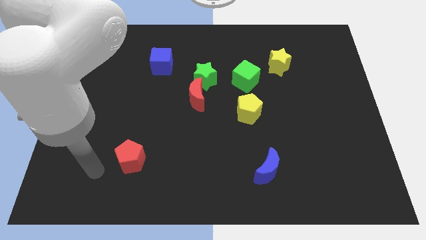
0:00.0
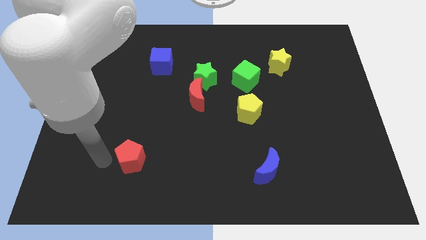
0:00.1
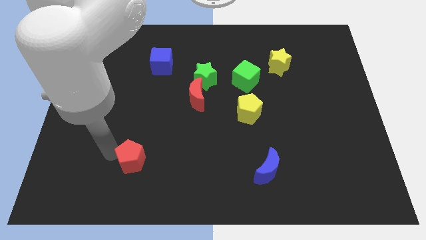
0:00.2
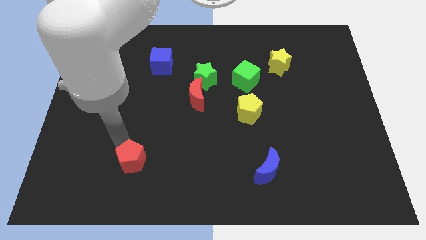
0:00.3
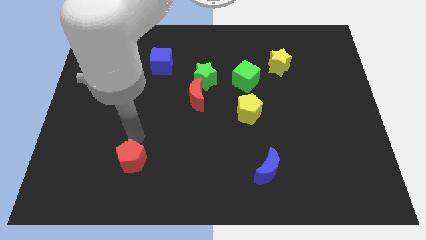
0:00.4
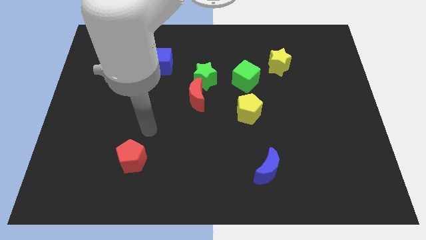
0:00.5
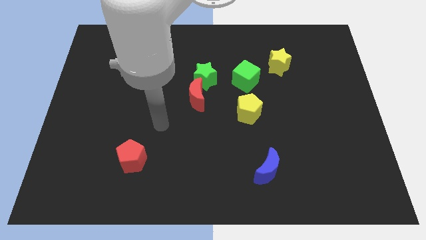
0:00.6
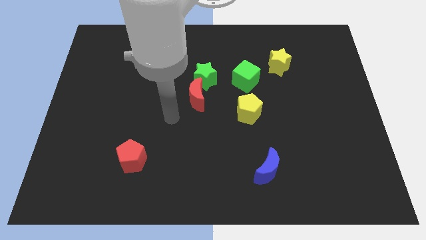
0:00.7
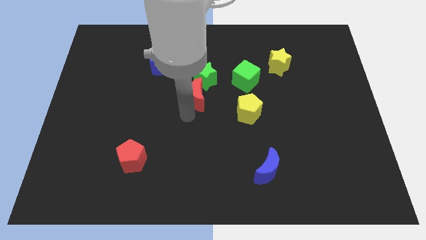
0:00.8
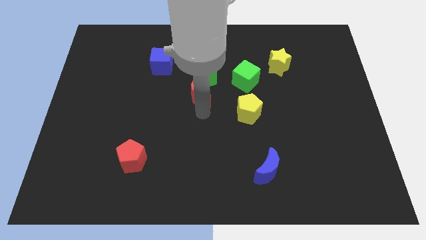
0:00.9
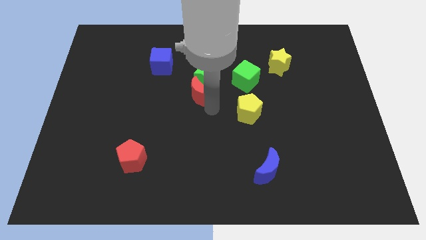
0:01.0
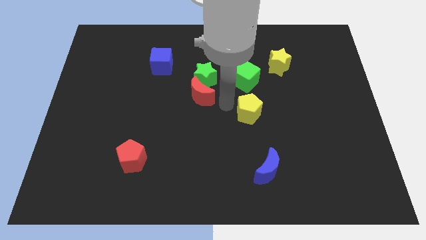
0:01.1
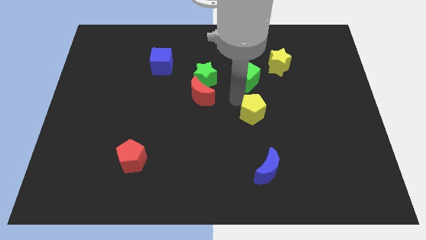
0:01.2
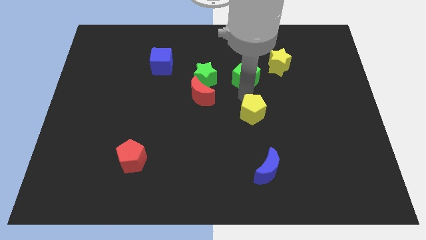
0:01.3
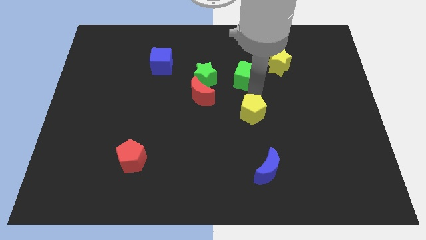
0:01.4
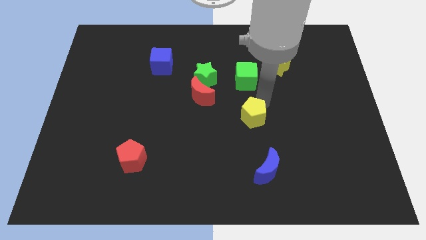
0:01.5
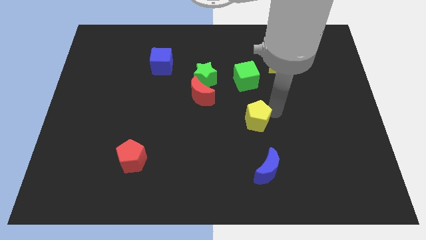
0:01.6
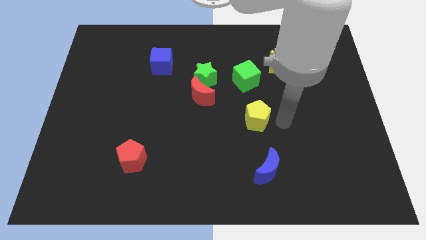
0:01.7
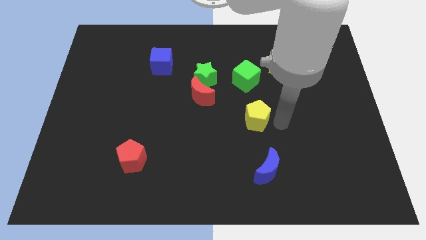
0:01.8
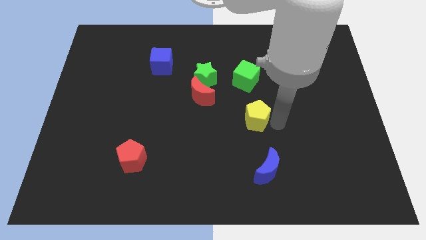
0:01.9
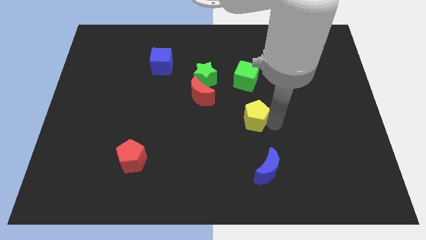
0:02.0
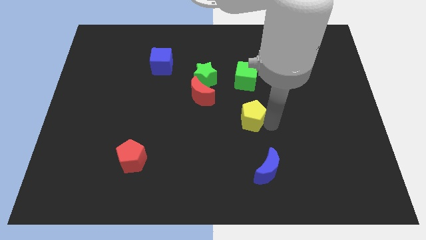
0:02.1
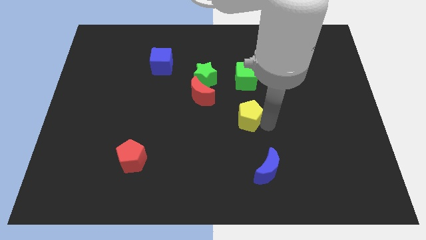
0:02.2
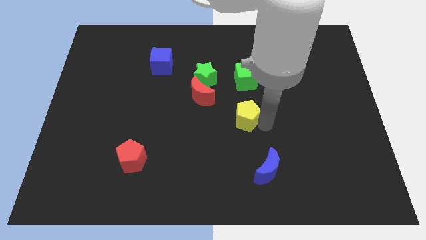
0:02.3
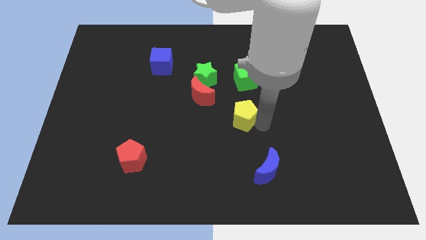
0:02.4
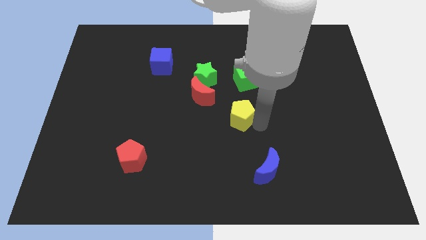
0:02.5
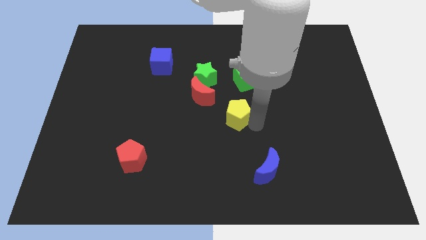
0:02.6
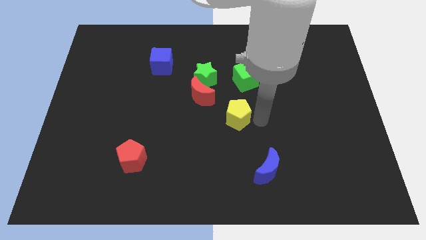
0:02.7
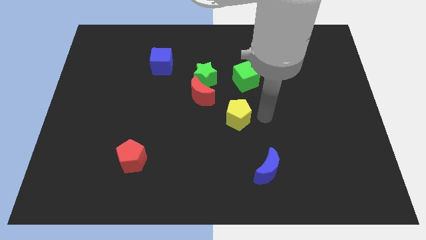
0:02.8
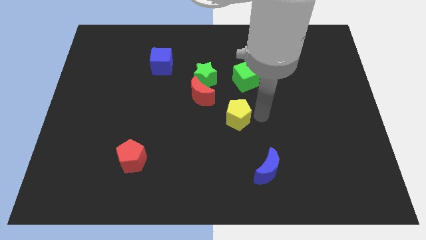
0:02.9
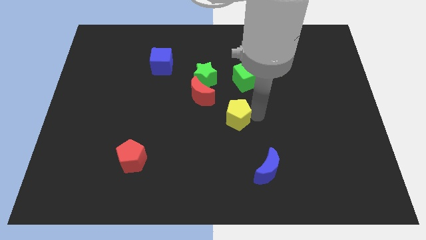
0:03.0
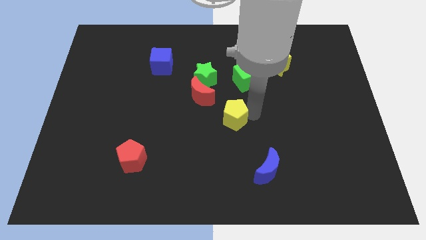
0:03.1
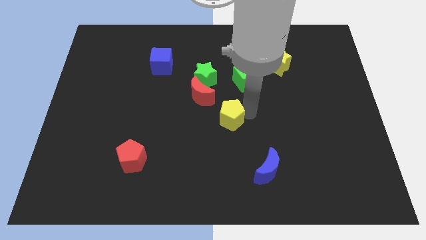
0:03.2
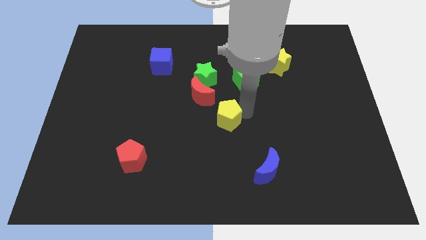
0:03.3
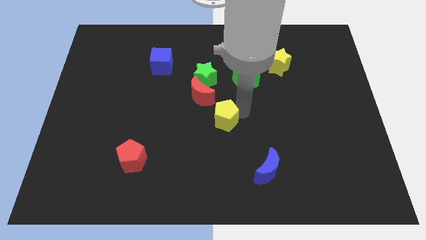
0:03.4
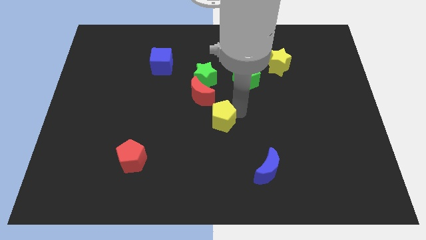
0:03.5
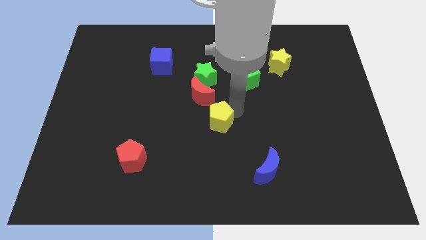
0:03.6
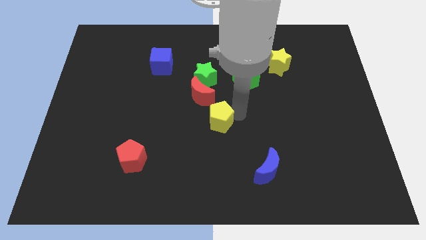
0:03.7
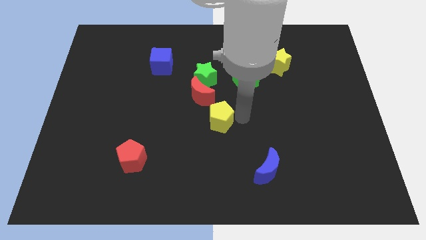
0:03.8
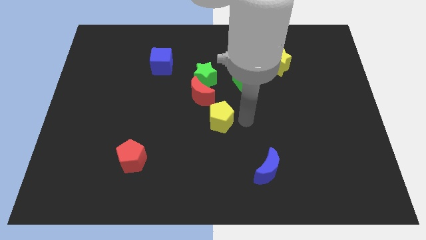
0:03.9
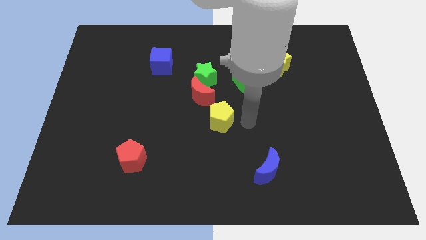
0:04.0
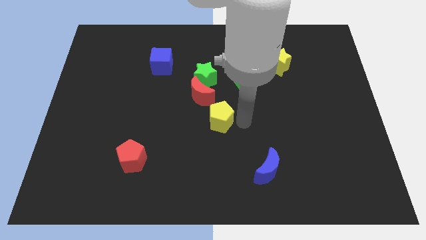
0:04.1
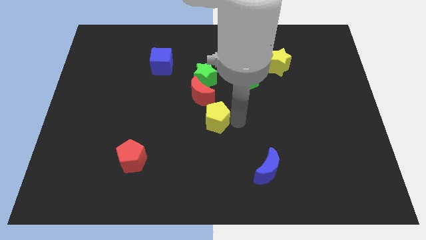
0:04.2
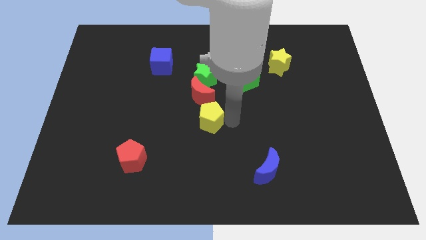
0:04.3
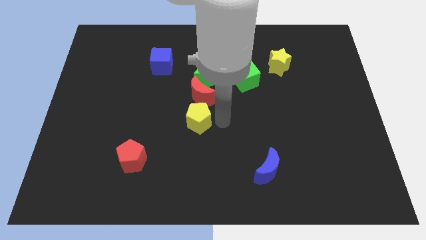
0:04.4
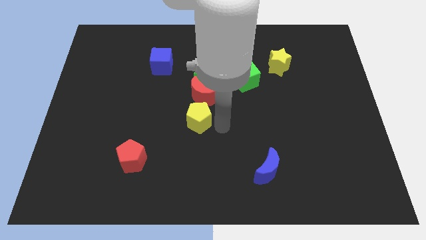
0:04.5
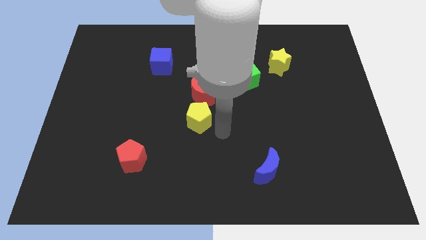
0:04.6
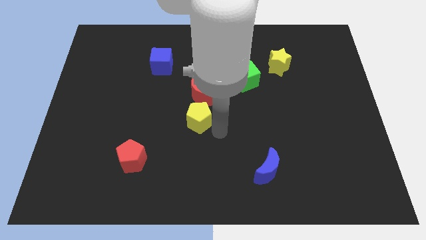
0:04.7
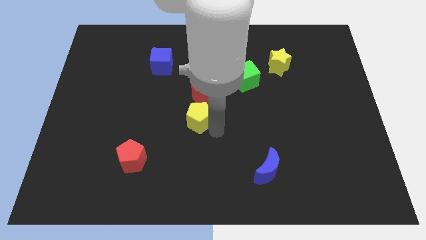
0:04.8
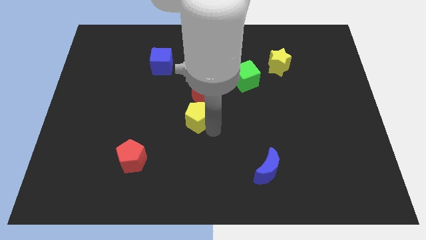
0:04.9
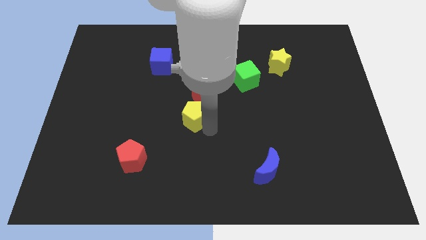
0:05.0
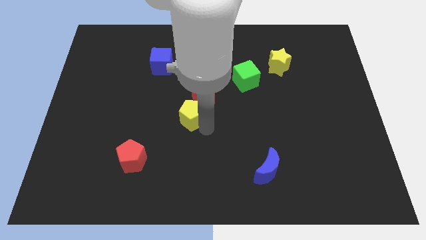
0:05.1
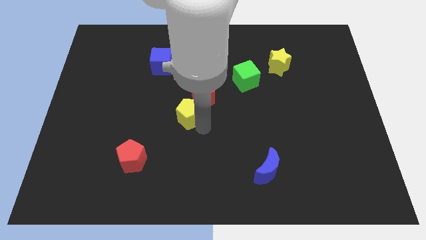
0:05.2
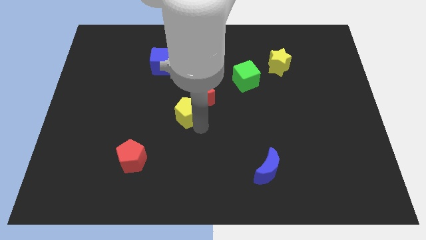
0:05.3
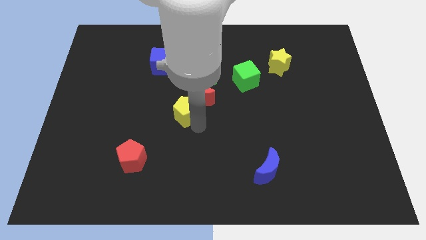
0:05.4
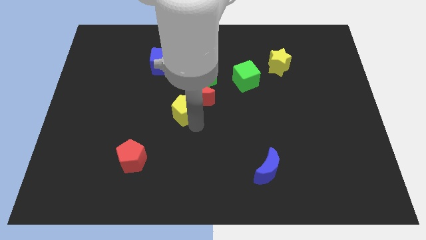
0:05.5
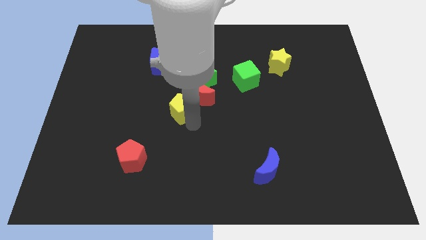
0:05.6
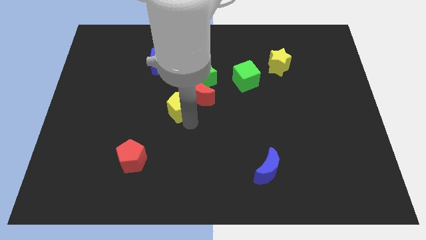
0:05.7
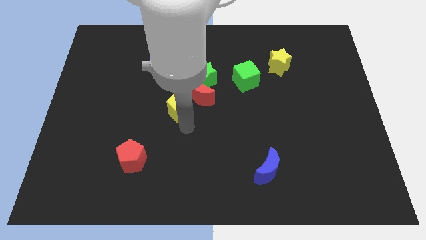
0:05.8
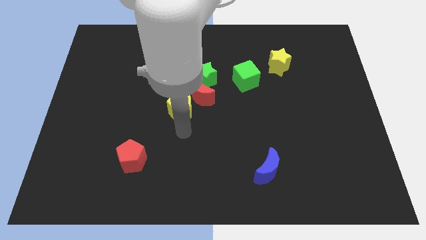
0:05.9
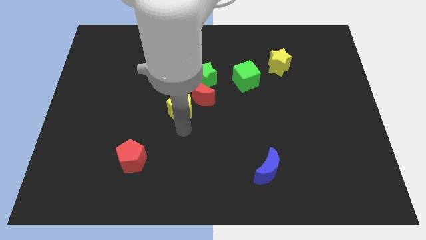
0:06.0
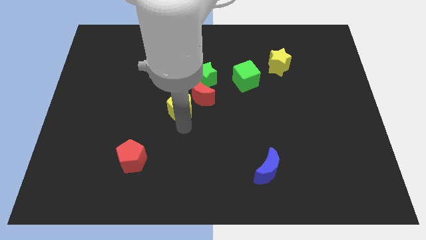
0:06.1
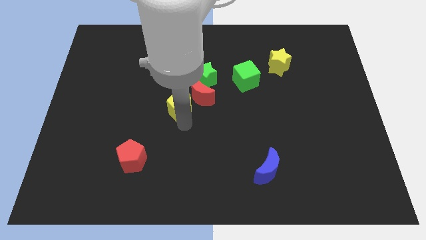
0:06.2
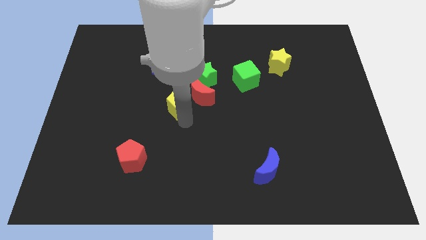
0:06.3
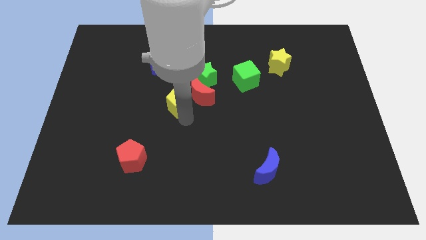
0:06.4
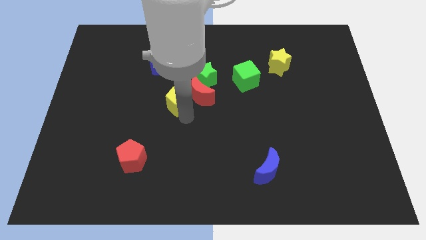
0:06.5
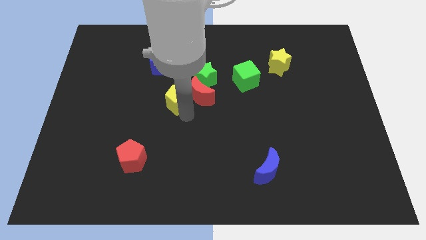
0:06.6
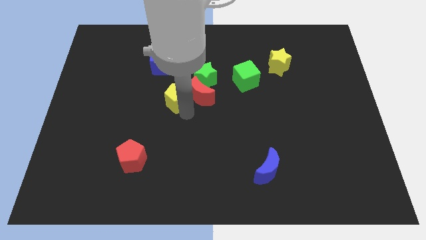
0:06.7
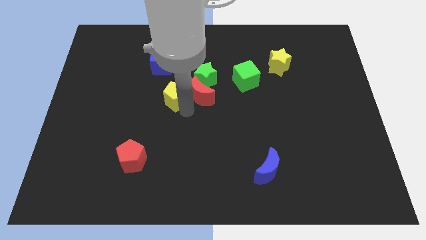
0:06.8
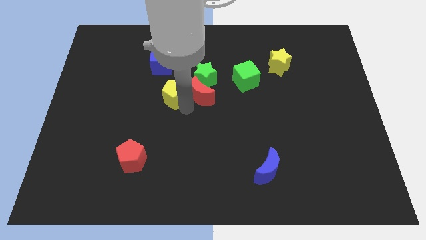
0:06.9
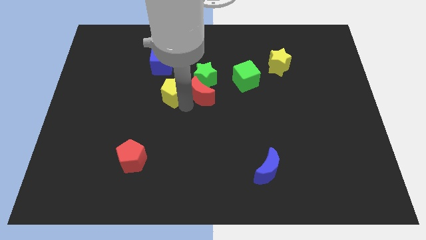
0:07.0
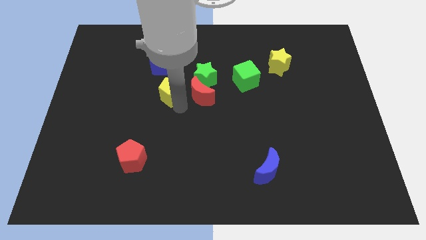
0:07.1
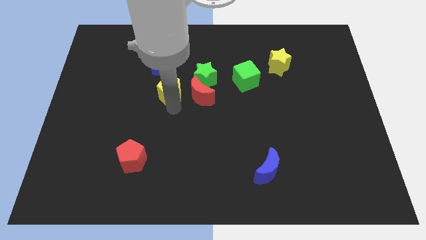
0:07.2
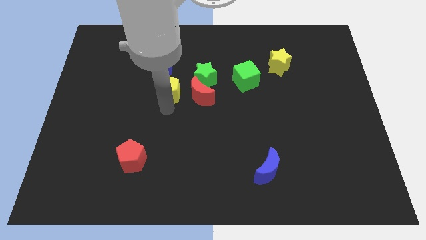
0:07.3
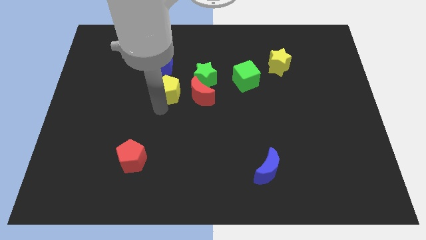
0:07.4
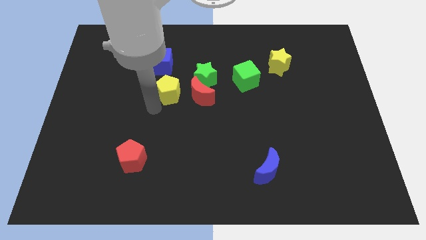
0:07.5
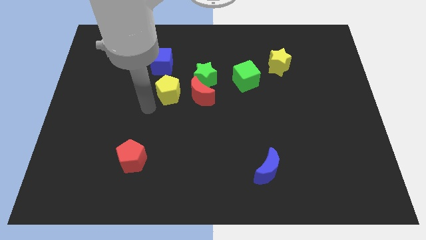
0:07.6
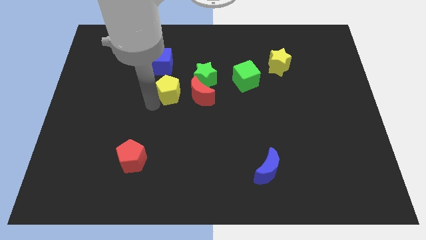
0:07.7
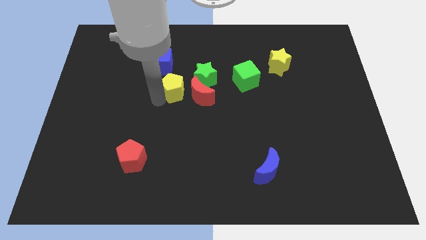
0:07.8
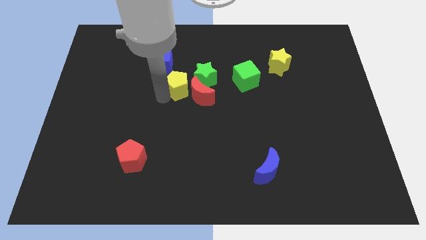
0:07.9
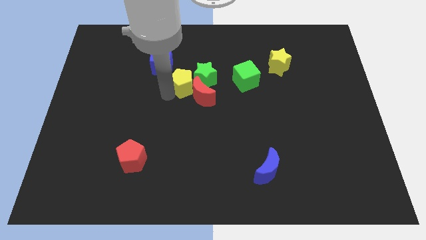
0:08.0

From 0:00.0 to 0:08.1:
move the yellow pentagon just left of the green cube
